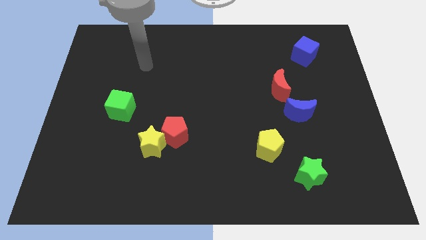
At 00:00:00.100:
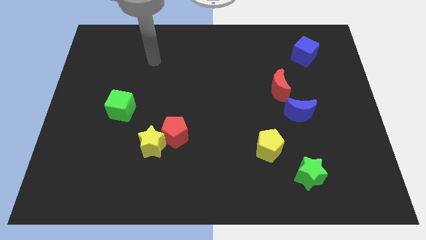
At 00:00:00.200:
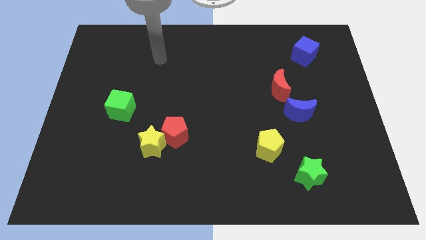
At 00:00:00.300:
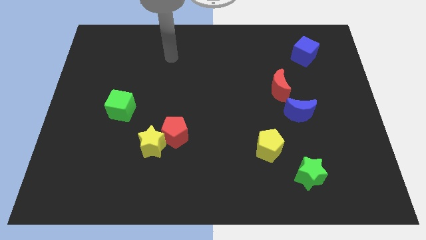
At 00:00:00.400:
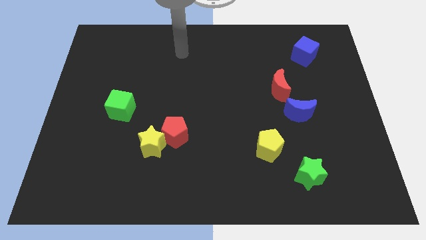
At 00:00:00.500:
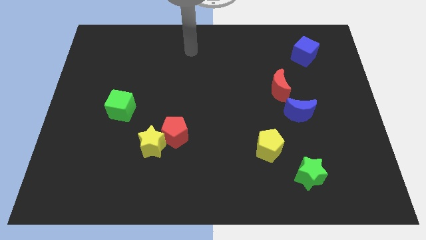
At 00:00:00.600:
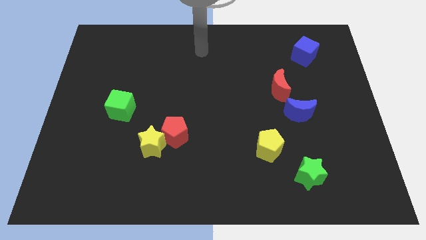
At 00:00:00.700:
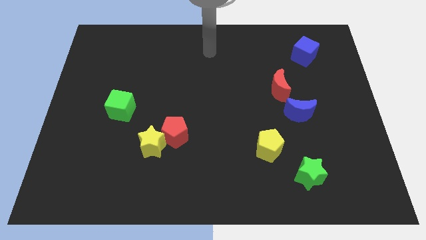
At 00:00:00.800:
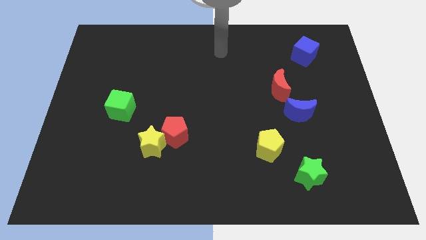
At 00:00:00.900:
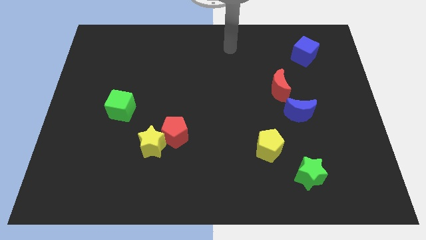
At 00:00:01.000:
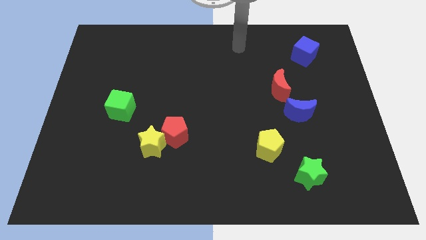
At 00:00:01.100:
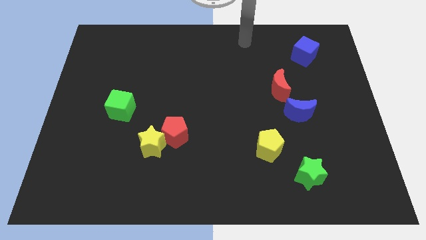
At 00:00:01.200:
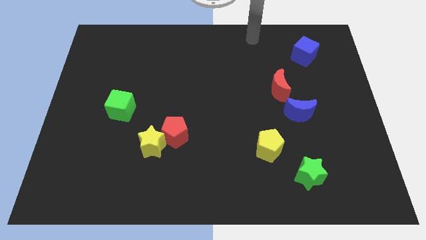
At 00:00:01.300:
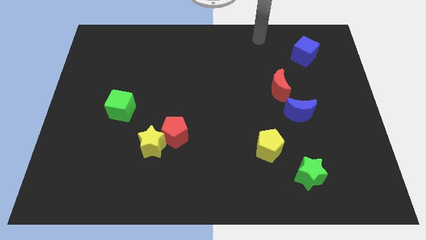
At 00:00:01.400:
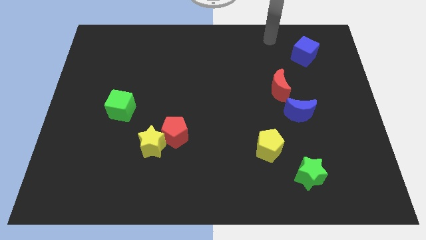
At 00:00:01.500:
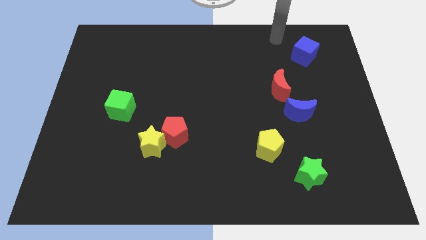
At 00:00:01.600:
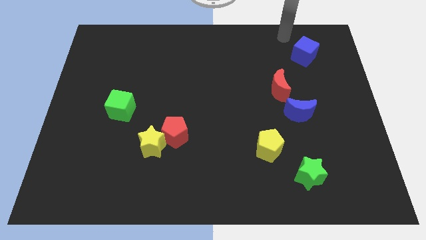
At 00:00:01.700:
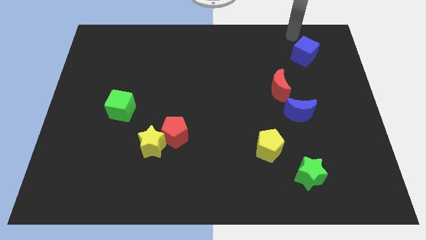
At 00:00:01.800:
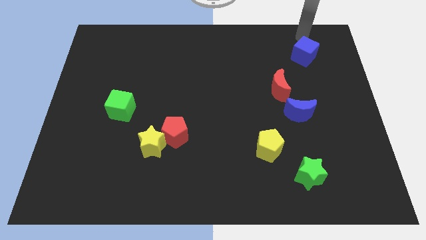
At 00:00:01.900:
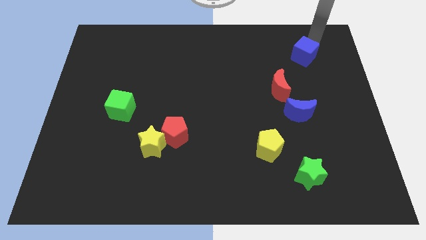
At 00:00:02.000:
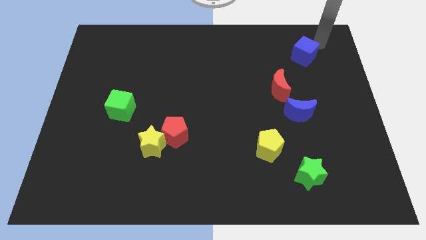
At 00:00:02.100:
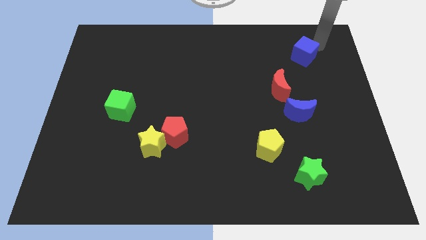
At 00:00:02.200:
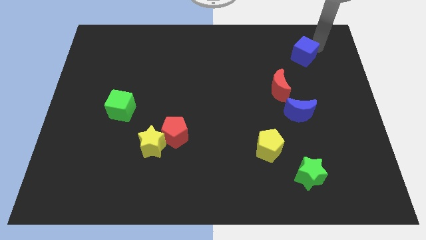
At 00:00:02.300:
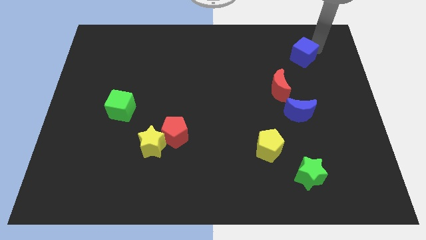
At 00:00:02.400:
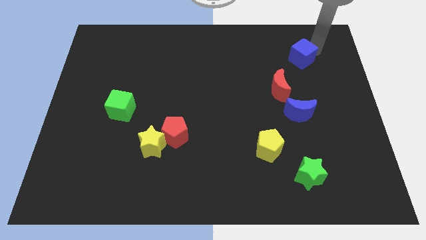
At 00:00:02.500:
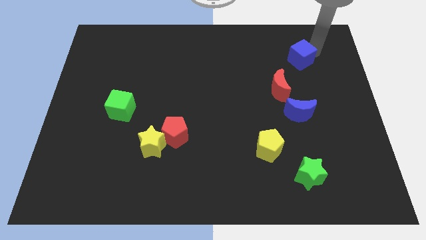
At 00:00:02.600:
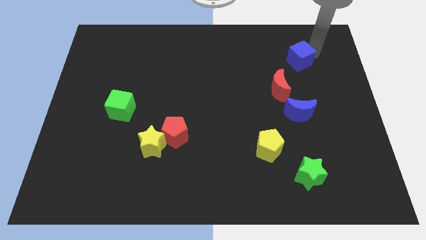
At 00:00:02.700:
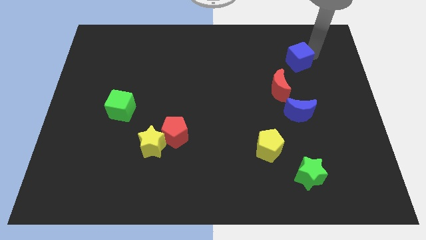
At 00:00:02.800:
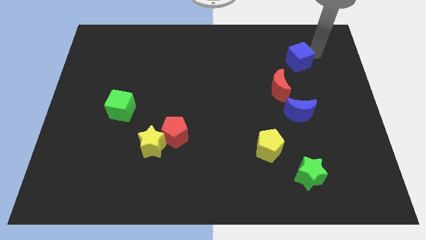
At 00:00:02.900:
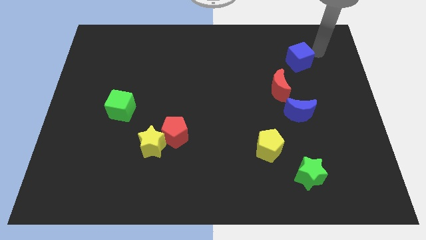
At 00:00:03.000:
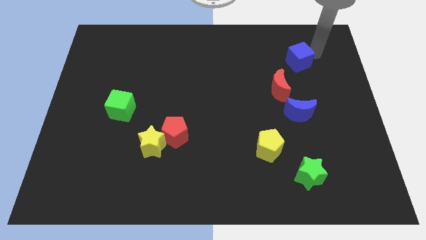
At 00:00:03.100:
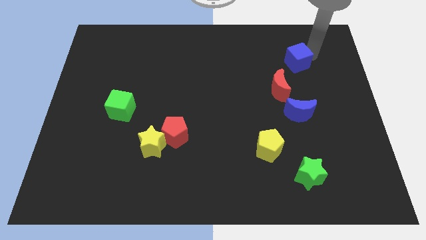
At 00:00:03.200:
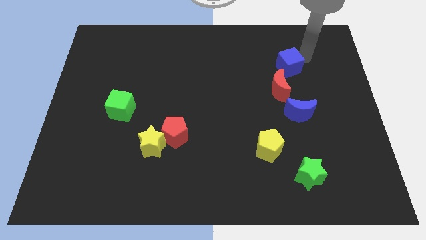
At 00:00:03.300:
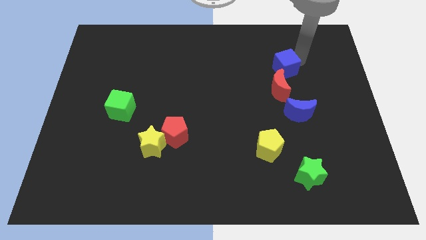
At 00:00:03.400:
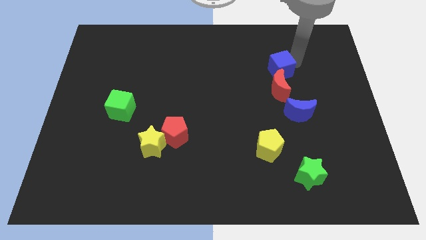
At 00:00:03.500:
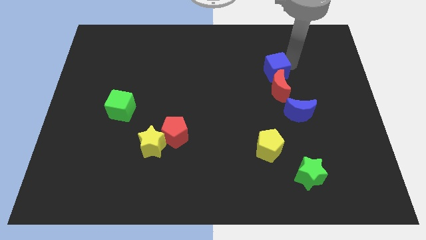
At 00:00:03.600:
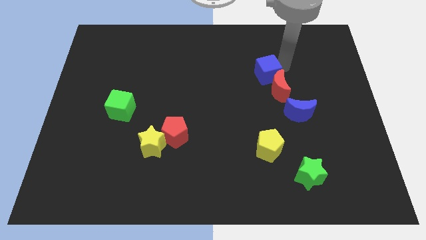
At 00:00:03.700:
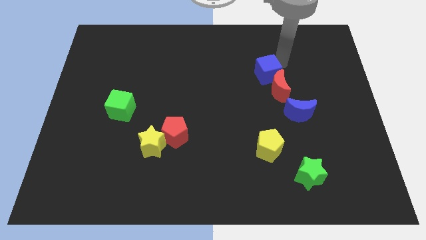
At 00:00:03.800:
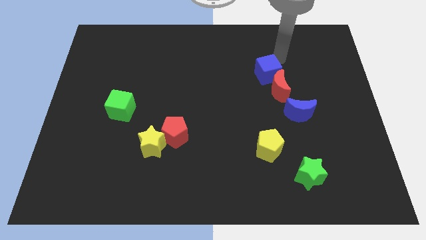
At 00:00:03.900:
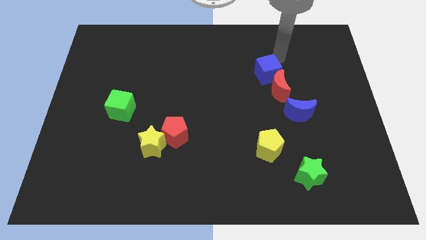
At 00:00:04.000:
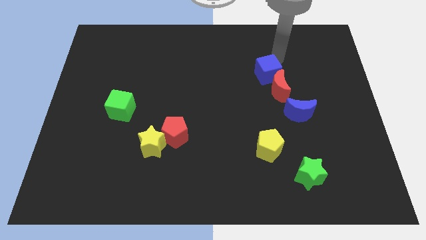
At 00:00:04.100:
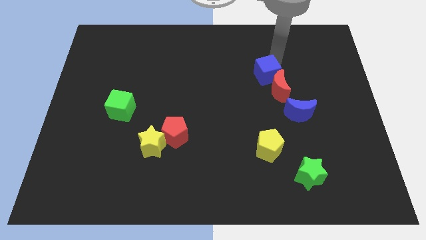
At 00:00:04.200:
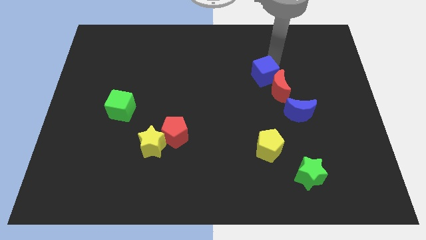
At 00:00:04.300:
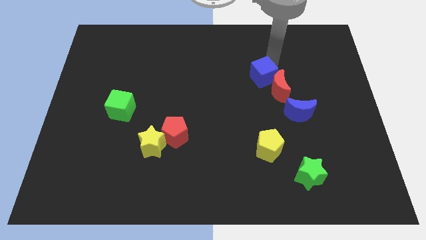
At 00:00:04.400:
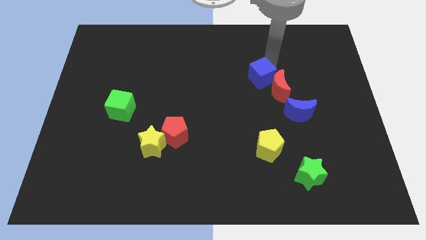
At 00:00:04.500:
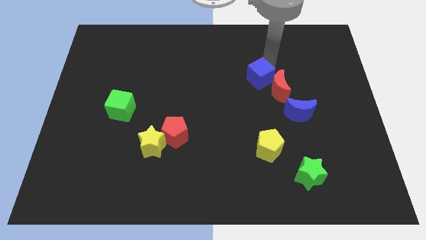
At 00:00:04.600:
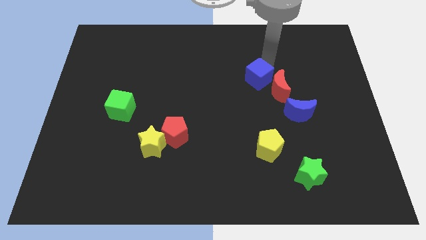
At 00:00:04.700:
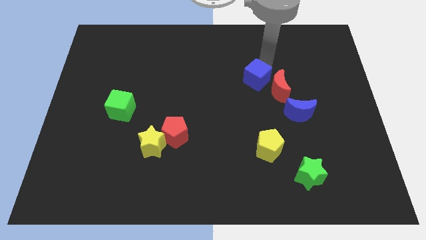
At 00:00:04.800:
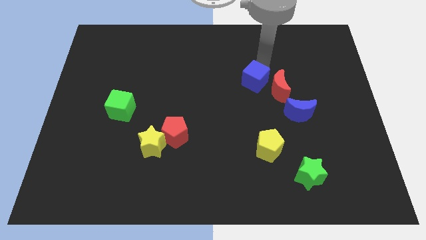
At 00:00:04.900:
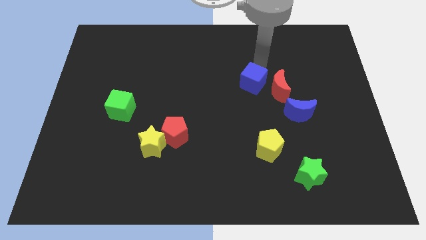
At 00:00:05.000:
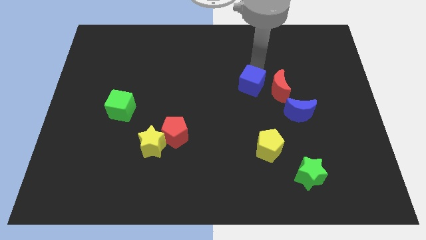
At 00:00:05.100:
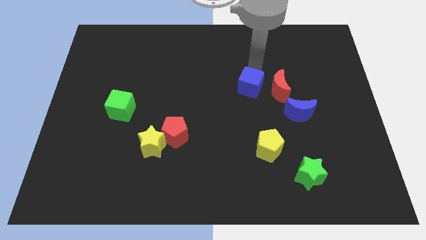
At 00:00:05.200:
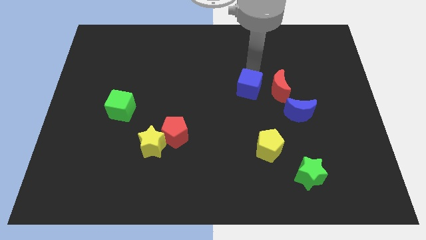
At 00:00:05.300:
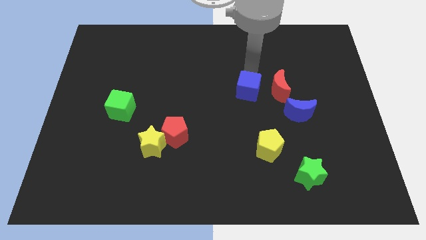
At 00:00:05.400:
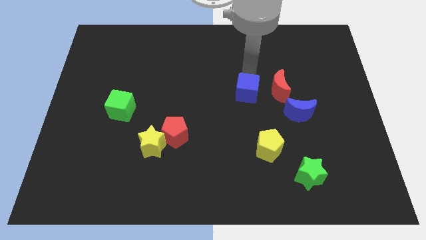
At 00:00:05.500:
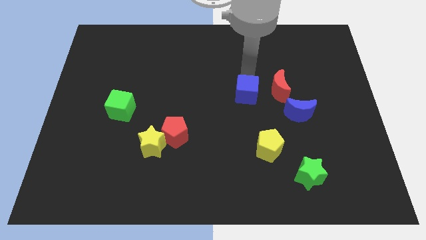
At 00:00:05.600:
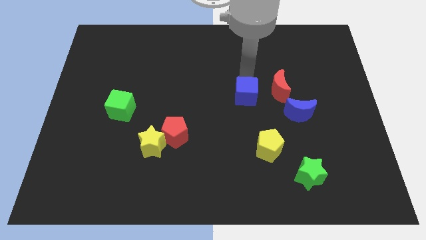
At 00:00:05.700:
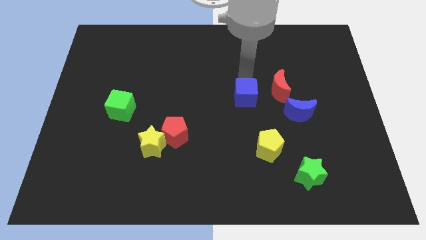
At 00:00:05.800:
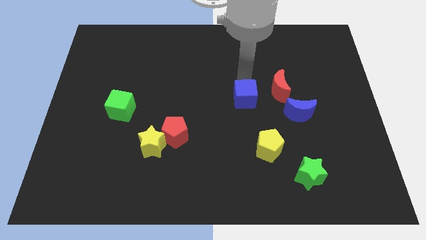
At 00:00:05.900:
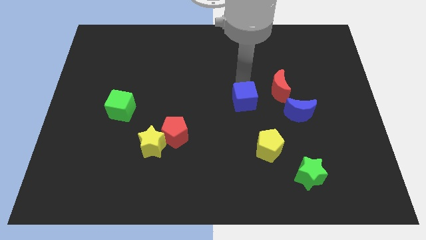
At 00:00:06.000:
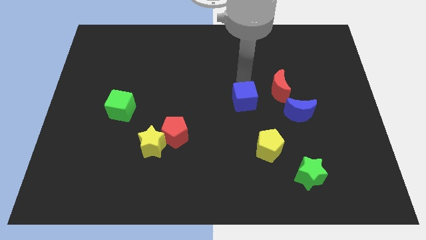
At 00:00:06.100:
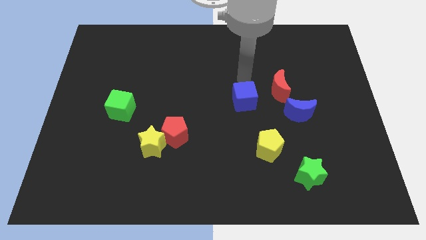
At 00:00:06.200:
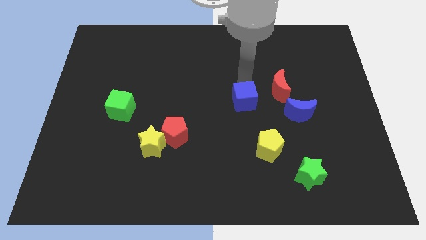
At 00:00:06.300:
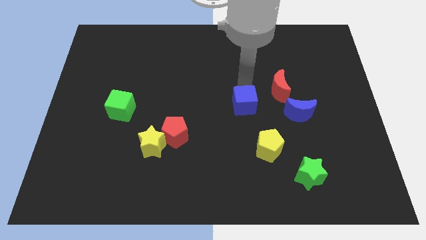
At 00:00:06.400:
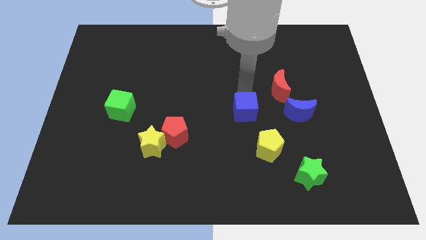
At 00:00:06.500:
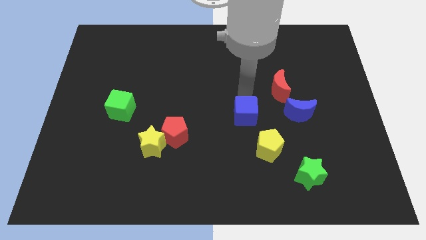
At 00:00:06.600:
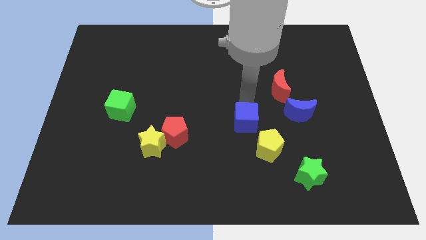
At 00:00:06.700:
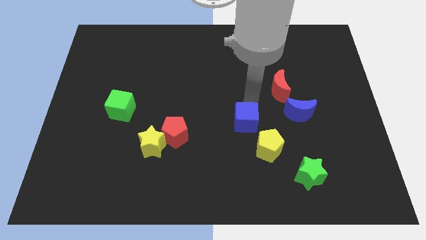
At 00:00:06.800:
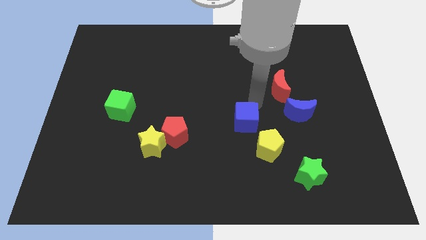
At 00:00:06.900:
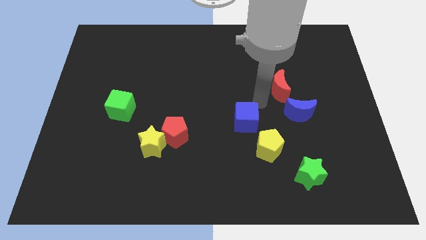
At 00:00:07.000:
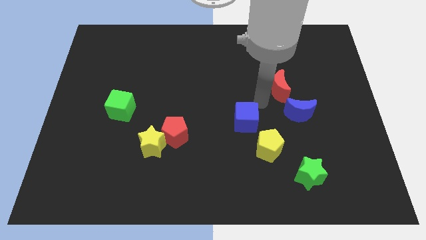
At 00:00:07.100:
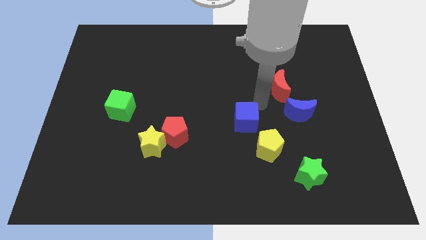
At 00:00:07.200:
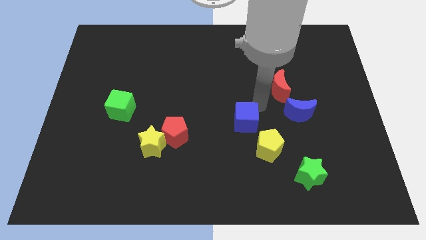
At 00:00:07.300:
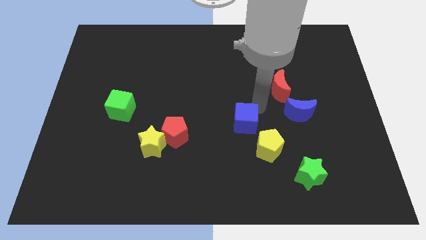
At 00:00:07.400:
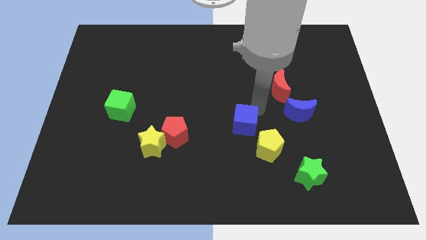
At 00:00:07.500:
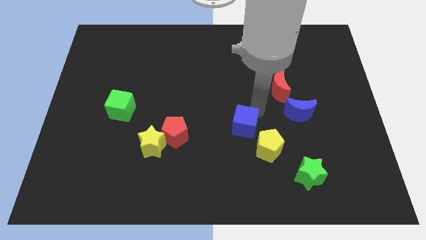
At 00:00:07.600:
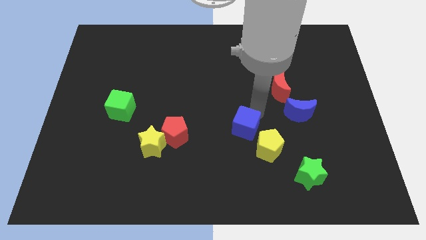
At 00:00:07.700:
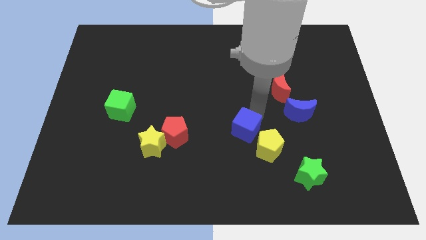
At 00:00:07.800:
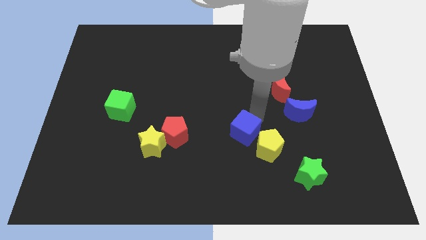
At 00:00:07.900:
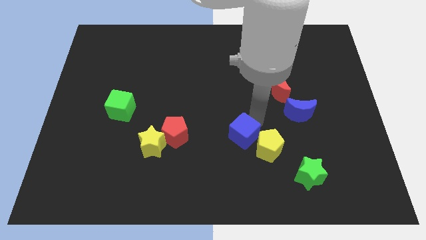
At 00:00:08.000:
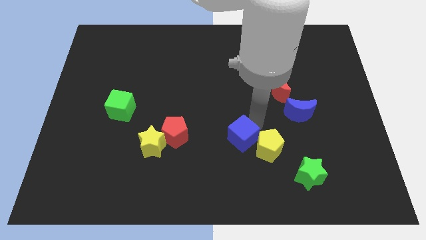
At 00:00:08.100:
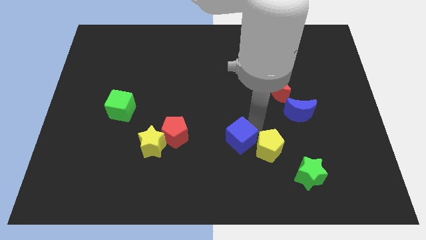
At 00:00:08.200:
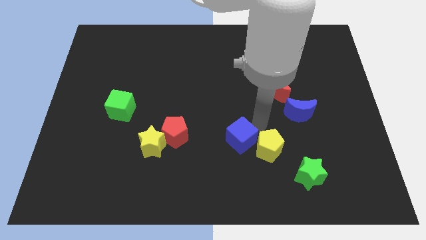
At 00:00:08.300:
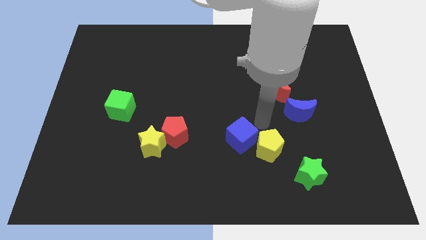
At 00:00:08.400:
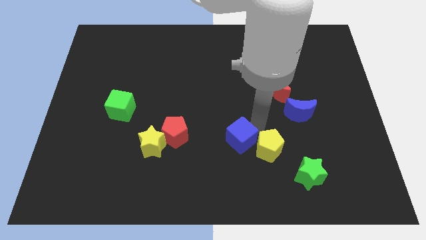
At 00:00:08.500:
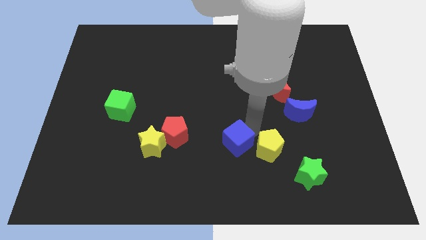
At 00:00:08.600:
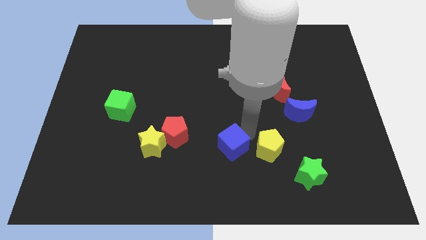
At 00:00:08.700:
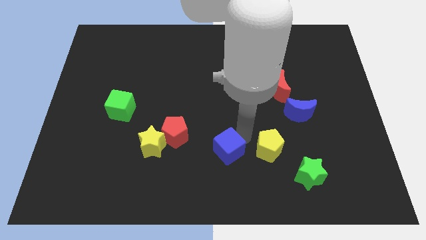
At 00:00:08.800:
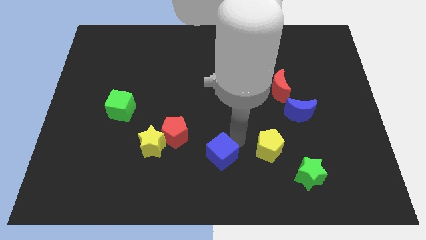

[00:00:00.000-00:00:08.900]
slide the blue cube to the bottom side
